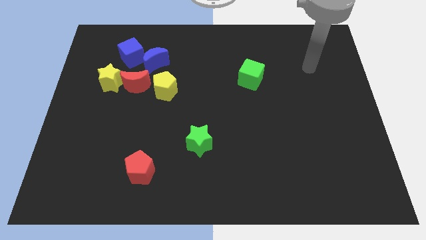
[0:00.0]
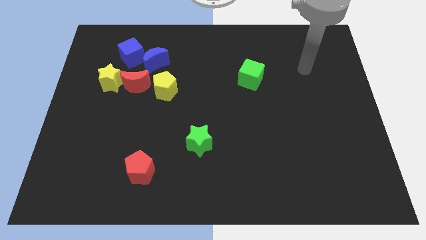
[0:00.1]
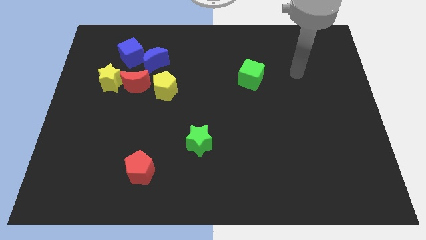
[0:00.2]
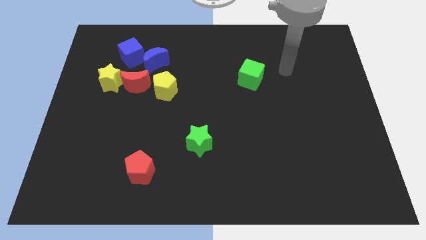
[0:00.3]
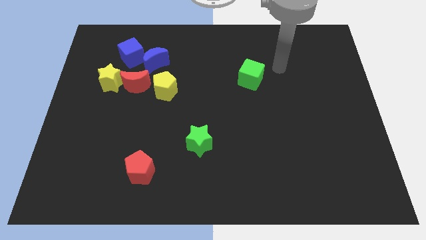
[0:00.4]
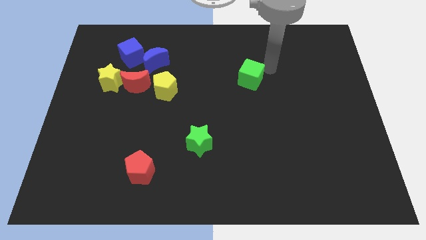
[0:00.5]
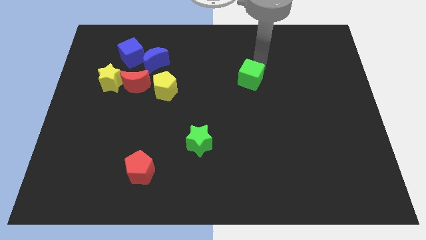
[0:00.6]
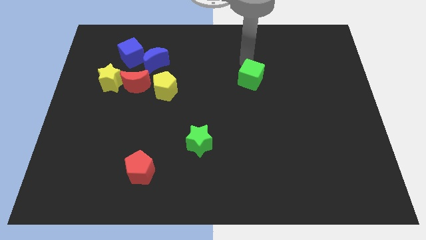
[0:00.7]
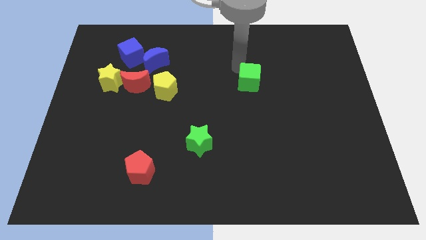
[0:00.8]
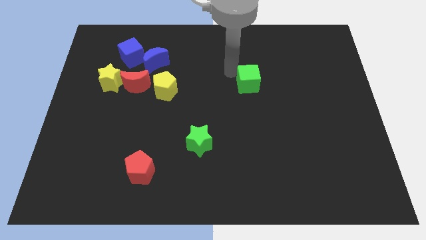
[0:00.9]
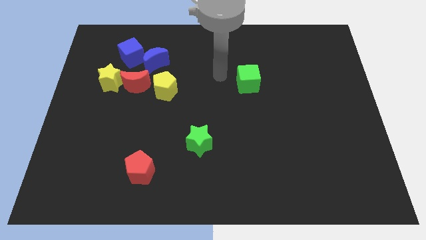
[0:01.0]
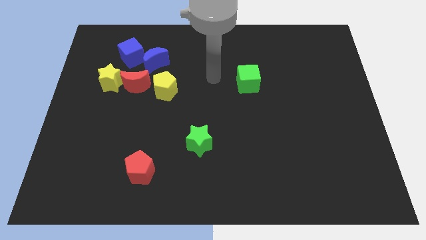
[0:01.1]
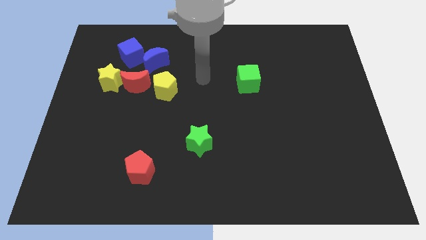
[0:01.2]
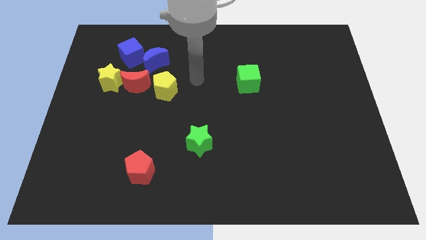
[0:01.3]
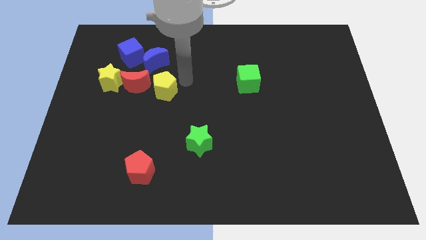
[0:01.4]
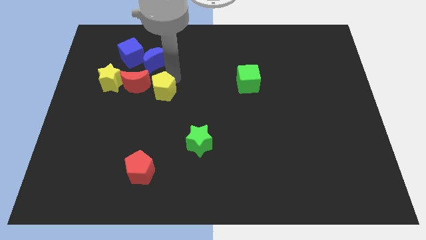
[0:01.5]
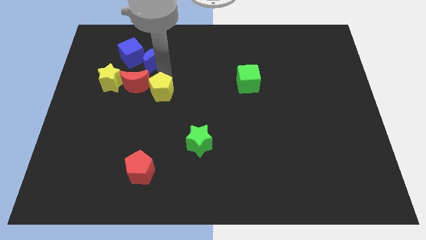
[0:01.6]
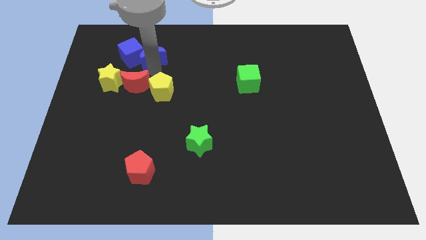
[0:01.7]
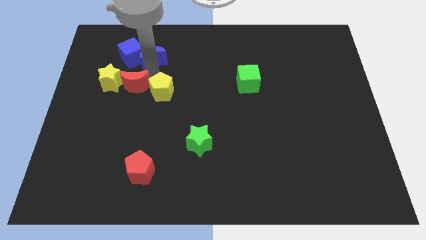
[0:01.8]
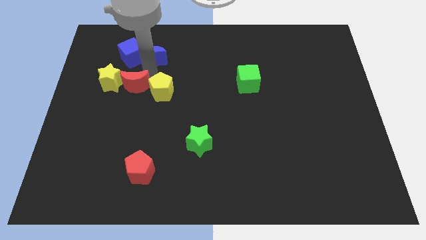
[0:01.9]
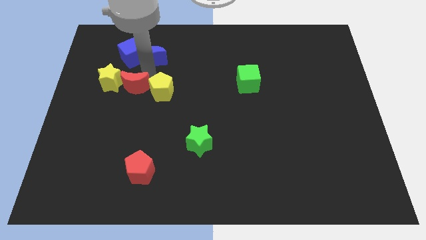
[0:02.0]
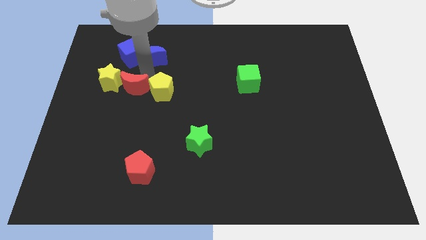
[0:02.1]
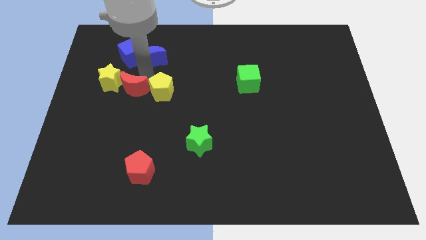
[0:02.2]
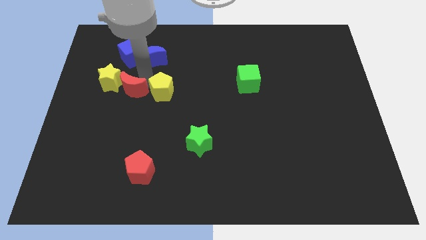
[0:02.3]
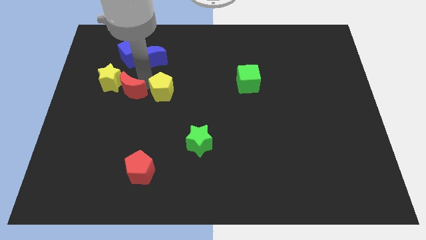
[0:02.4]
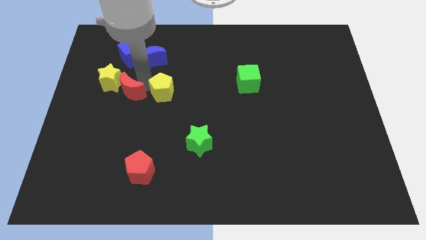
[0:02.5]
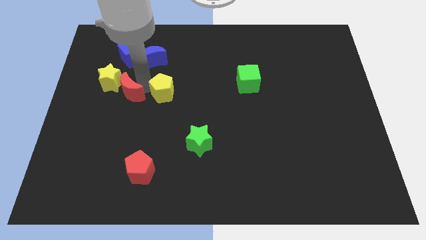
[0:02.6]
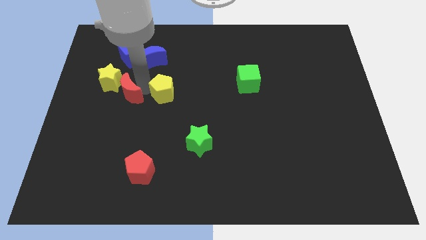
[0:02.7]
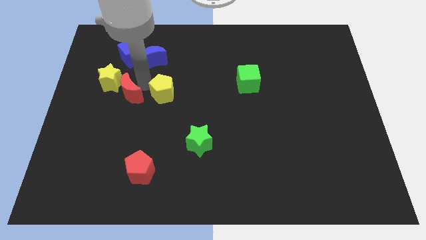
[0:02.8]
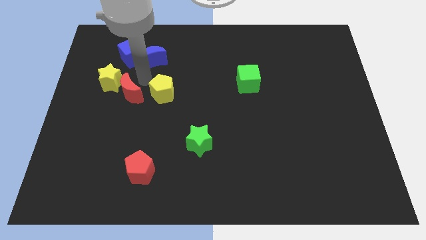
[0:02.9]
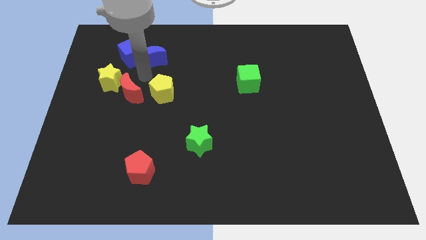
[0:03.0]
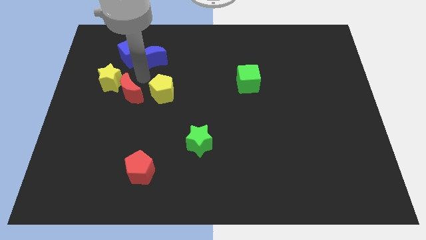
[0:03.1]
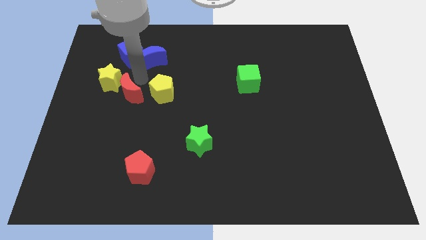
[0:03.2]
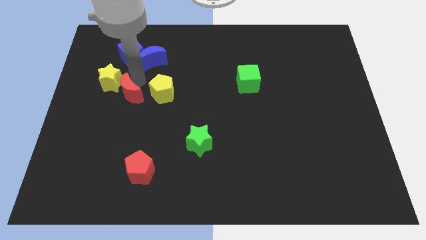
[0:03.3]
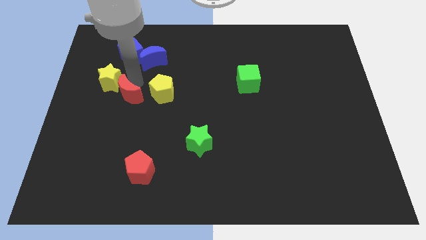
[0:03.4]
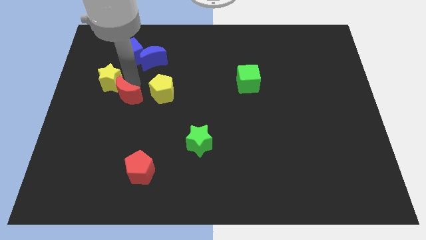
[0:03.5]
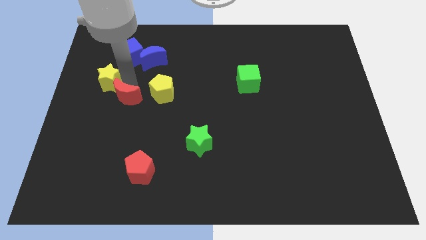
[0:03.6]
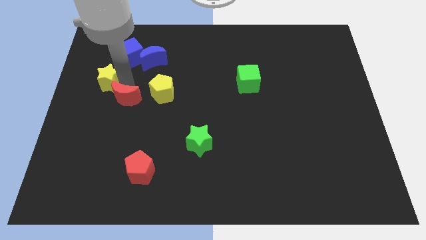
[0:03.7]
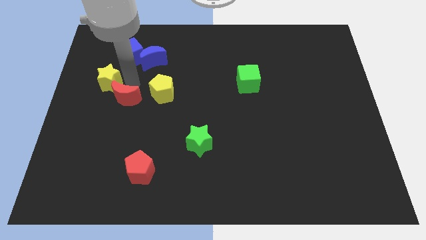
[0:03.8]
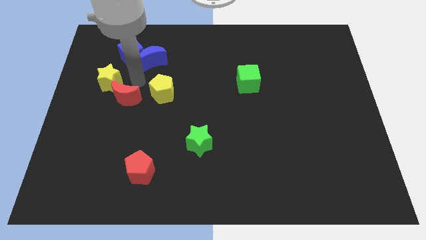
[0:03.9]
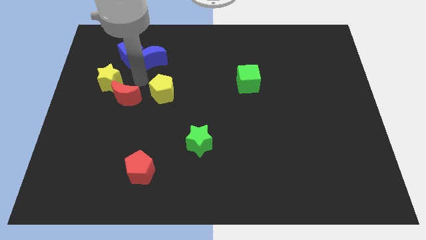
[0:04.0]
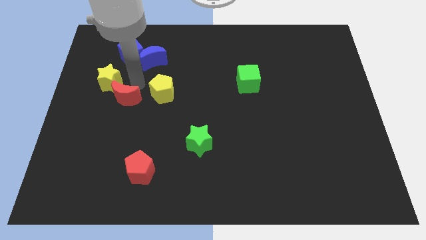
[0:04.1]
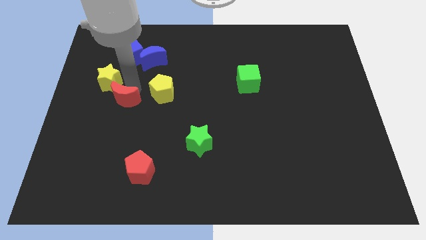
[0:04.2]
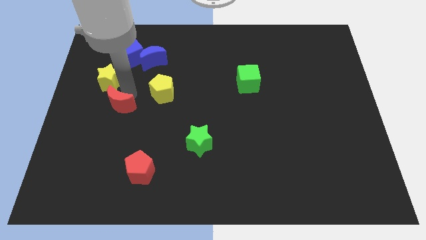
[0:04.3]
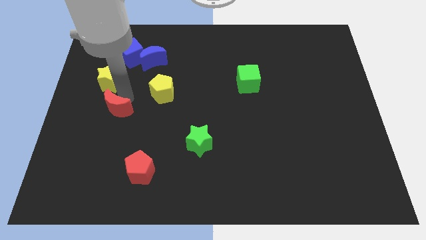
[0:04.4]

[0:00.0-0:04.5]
move the red moon away from the yellow star, yellow pentagon, and blue moon

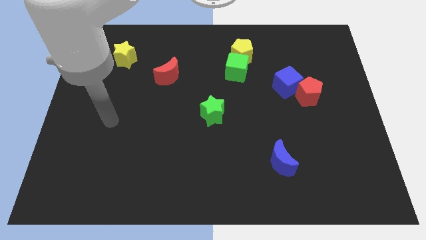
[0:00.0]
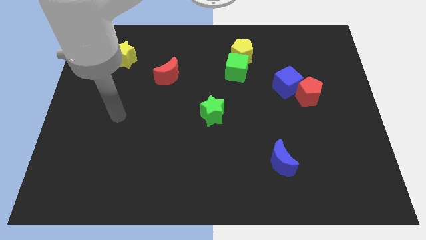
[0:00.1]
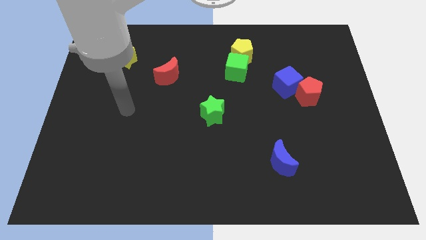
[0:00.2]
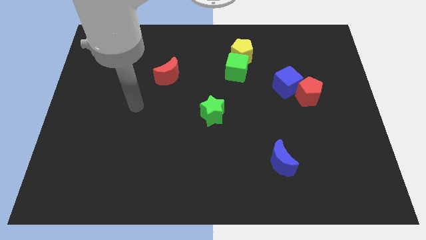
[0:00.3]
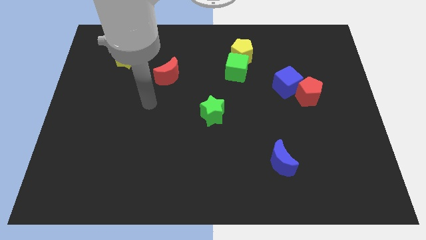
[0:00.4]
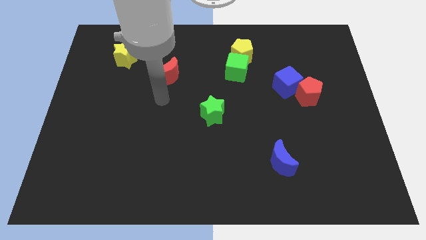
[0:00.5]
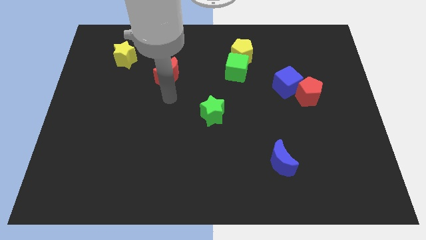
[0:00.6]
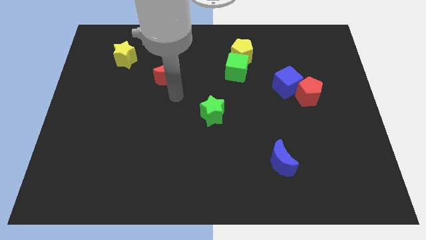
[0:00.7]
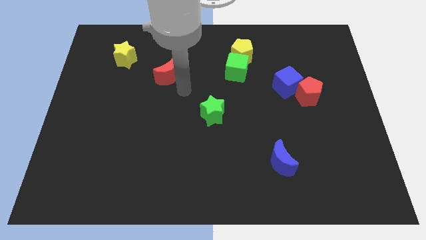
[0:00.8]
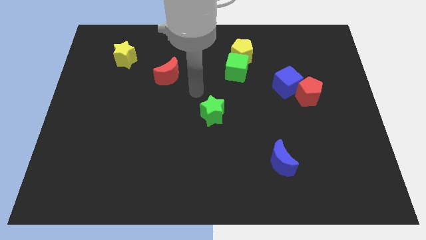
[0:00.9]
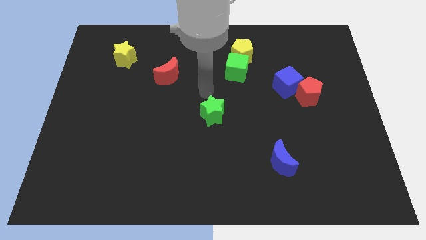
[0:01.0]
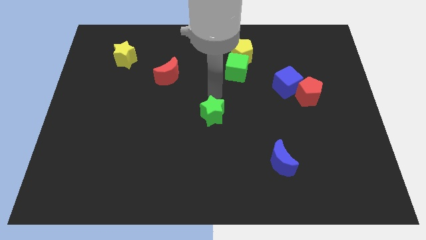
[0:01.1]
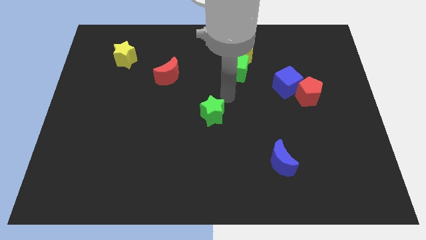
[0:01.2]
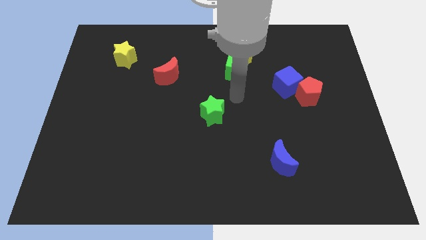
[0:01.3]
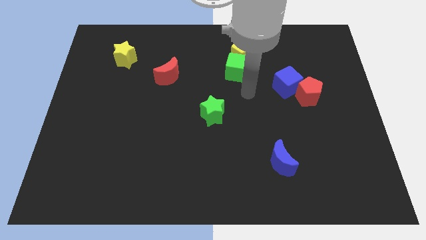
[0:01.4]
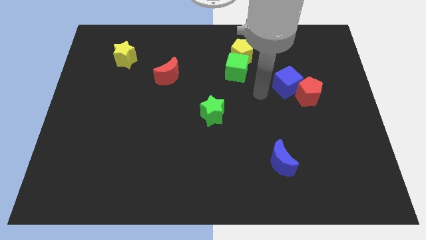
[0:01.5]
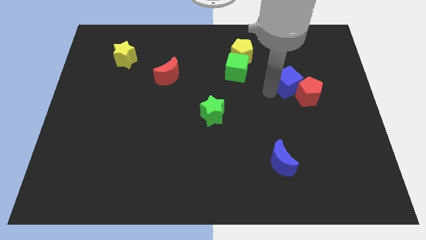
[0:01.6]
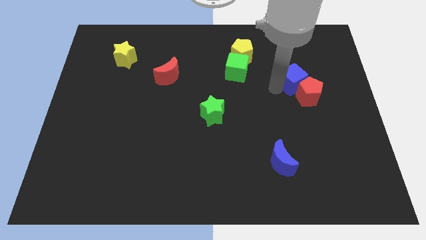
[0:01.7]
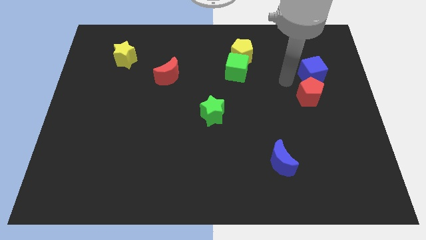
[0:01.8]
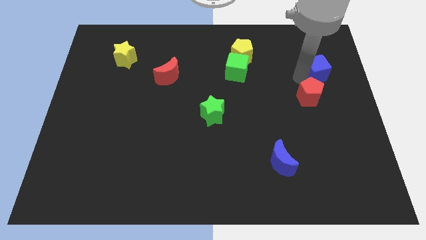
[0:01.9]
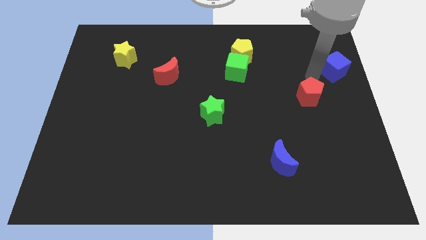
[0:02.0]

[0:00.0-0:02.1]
pull the red pentagon apart from the blue cube

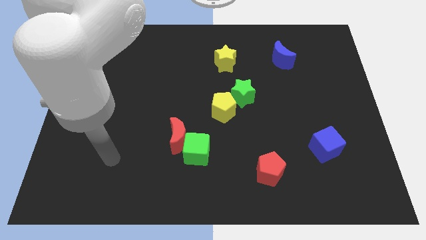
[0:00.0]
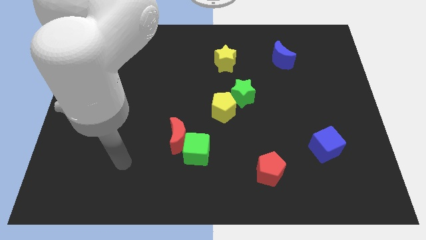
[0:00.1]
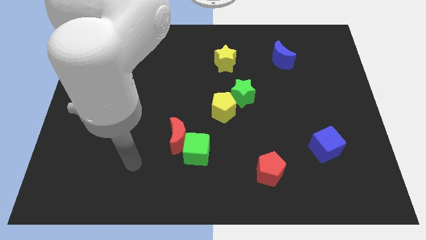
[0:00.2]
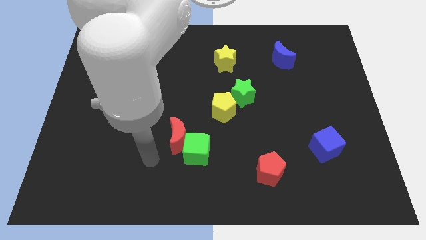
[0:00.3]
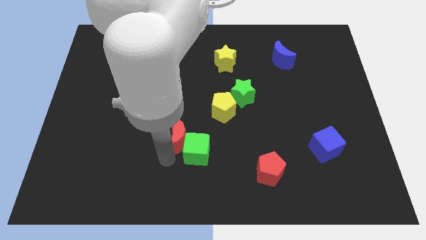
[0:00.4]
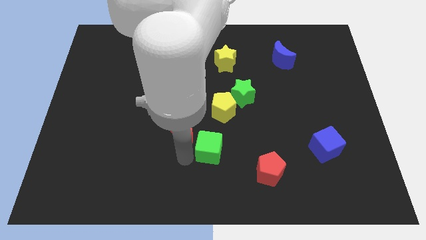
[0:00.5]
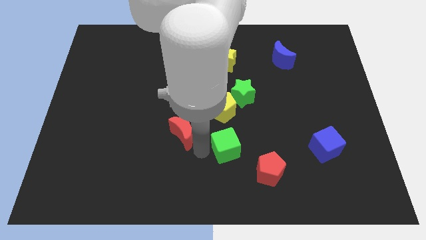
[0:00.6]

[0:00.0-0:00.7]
pull the red moon apart from the green cube

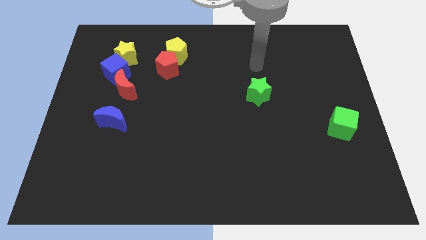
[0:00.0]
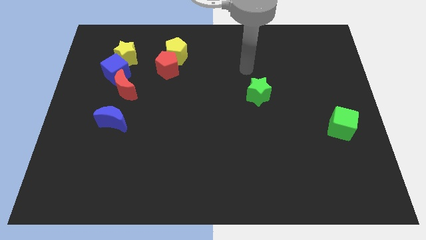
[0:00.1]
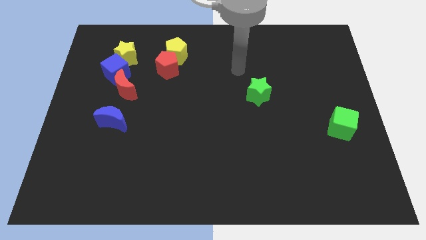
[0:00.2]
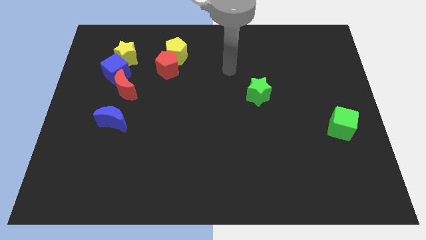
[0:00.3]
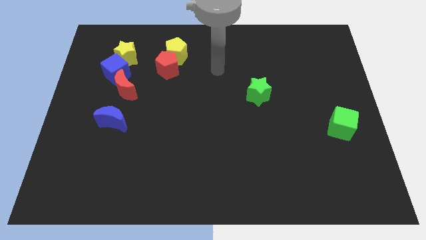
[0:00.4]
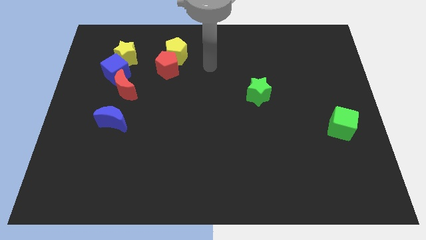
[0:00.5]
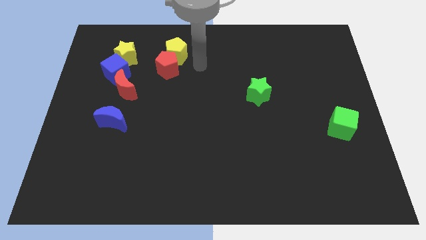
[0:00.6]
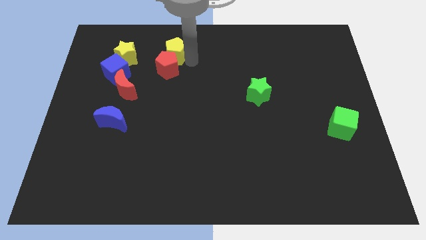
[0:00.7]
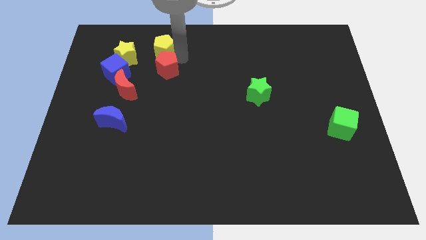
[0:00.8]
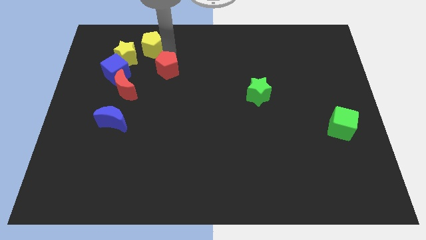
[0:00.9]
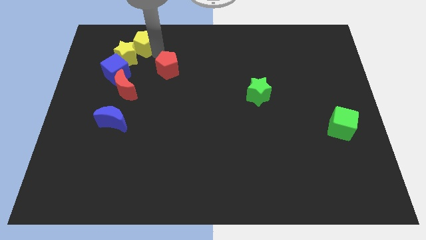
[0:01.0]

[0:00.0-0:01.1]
pull the red pentagon apart from the yellow pentagon

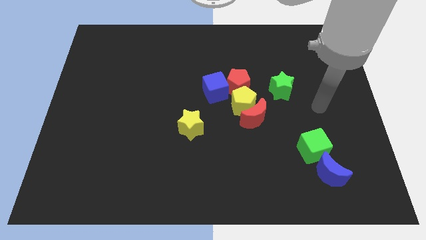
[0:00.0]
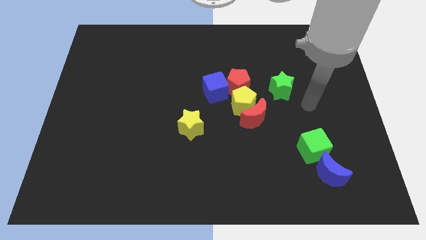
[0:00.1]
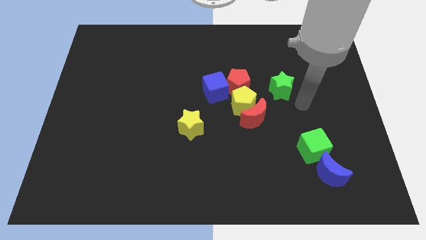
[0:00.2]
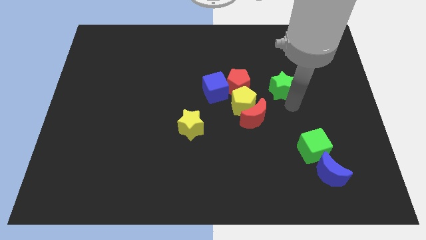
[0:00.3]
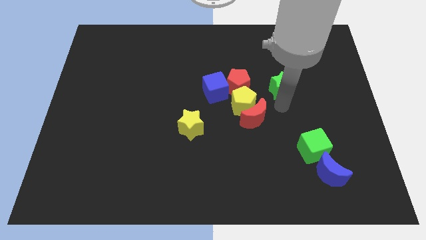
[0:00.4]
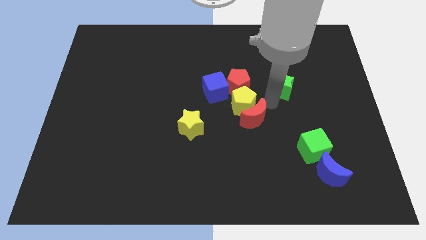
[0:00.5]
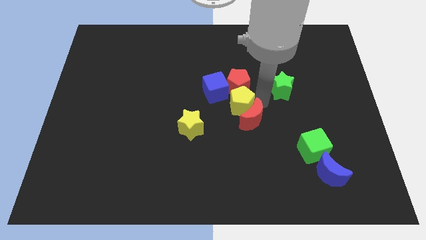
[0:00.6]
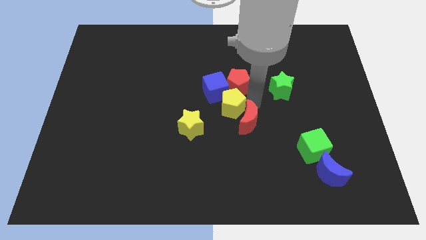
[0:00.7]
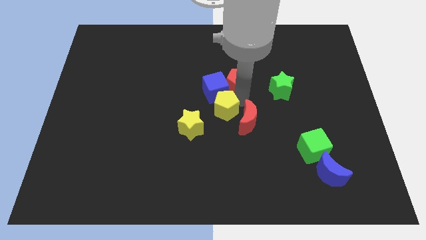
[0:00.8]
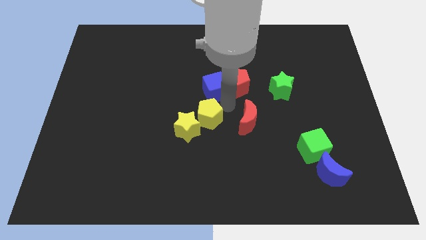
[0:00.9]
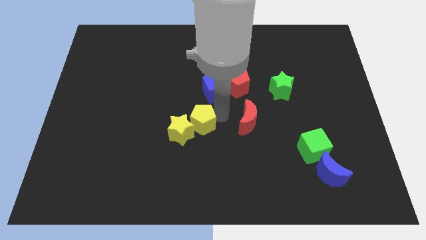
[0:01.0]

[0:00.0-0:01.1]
pull the red moon apart from the yellow pentagon
